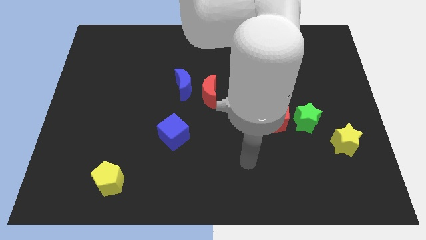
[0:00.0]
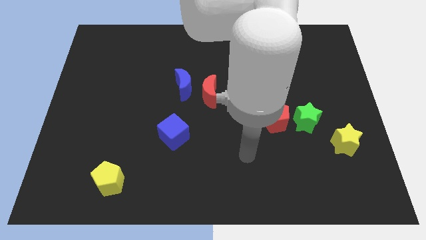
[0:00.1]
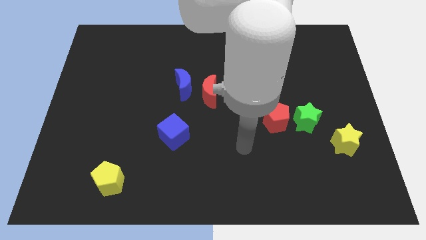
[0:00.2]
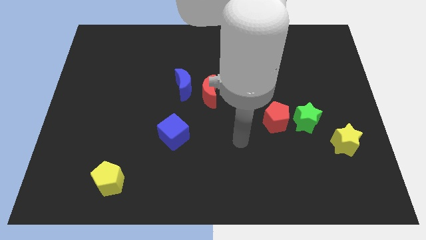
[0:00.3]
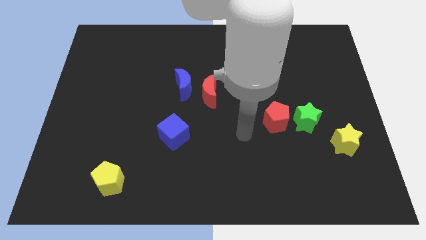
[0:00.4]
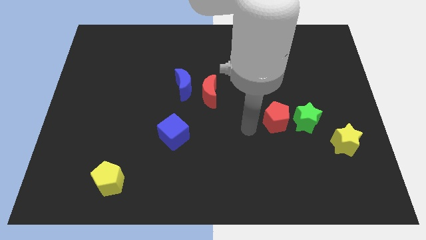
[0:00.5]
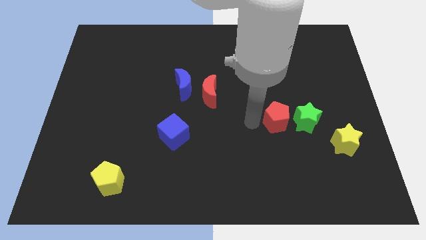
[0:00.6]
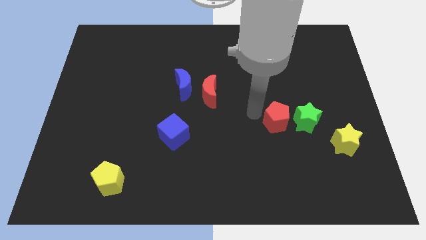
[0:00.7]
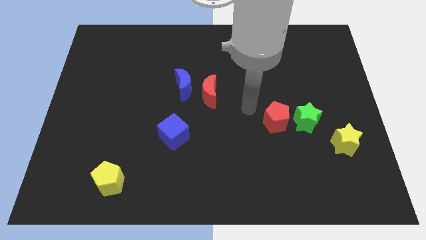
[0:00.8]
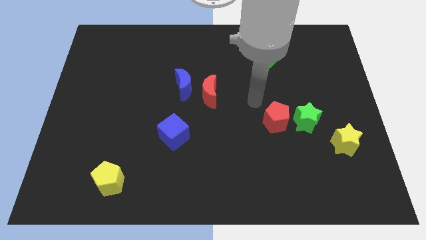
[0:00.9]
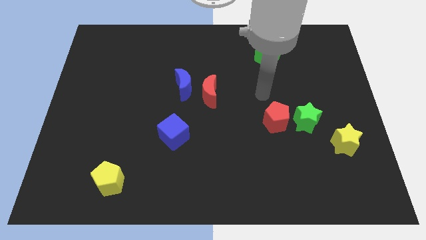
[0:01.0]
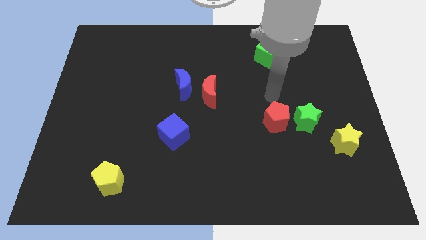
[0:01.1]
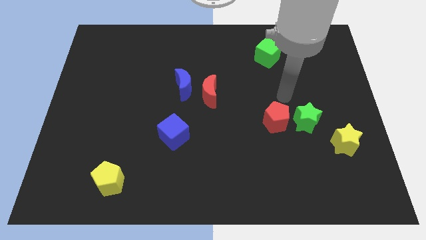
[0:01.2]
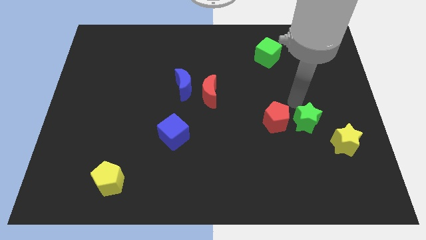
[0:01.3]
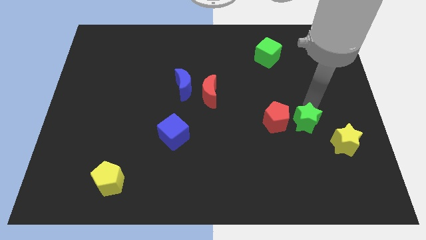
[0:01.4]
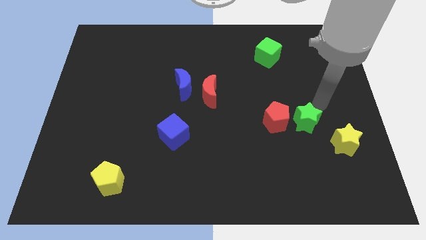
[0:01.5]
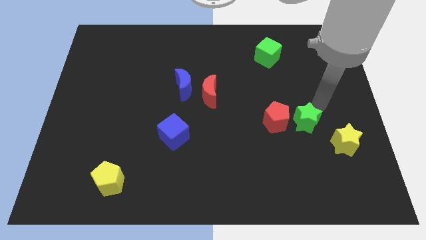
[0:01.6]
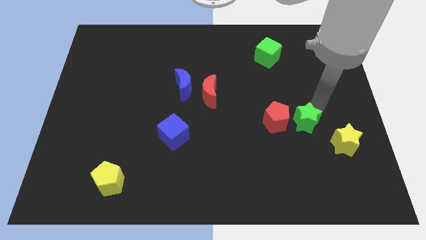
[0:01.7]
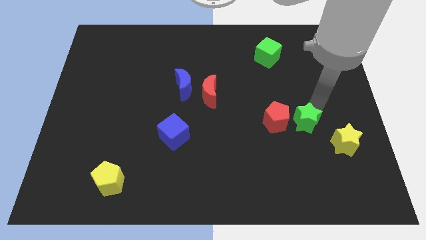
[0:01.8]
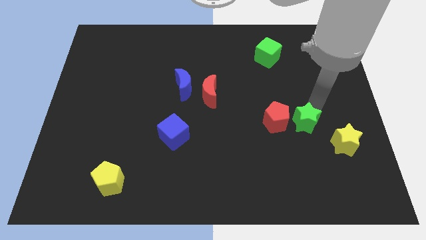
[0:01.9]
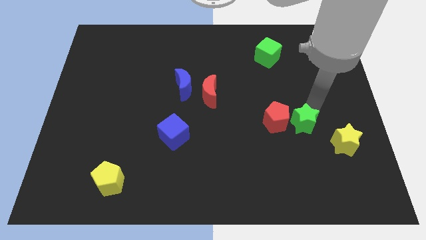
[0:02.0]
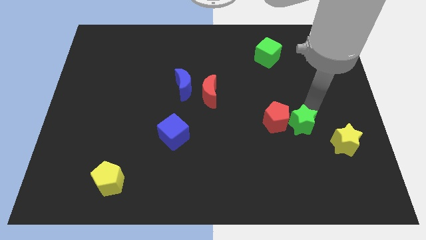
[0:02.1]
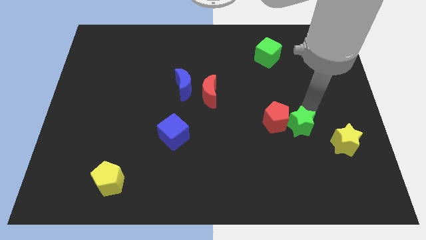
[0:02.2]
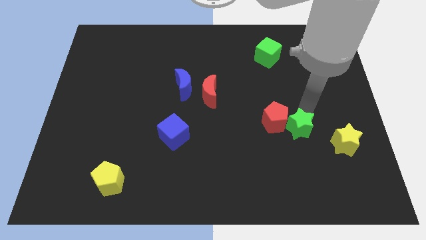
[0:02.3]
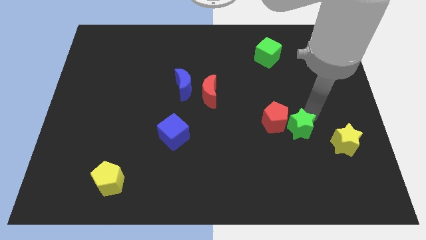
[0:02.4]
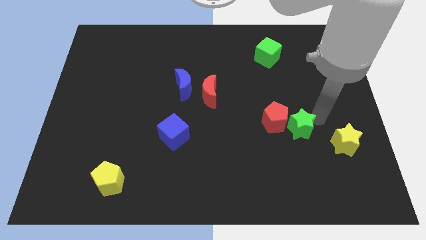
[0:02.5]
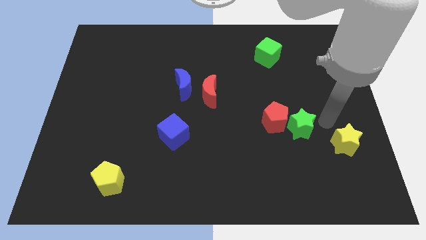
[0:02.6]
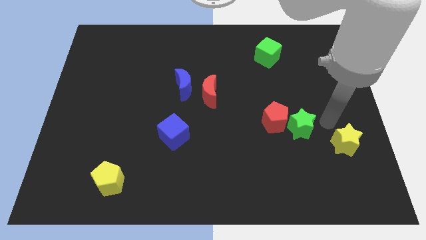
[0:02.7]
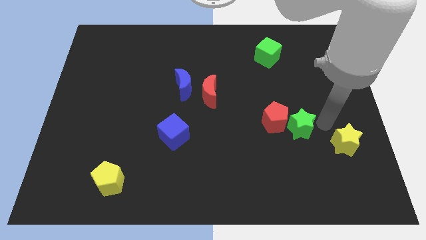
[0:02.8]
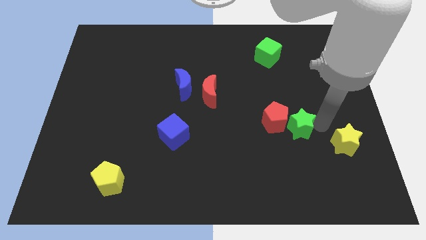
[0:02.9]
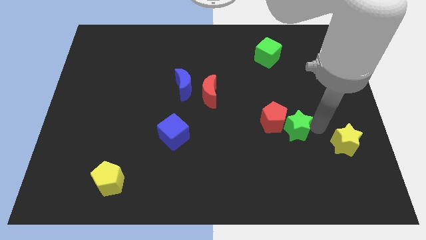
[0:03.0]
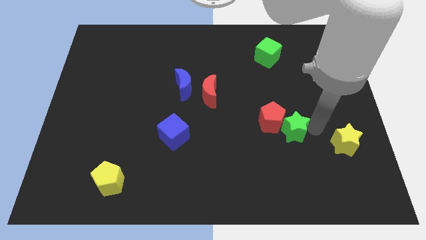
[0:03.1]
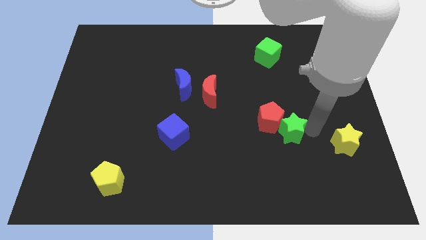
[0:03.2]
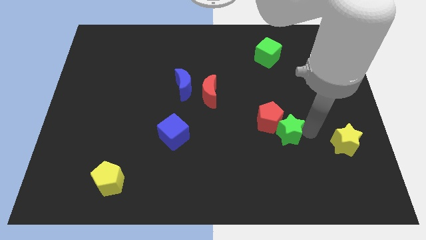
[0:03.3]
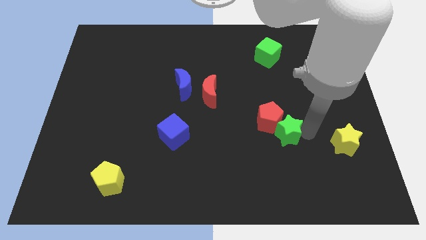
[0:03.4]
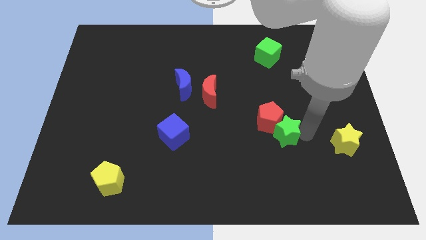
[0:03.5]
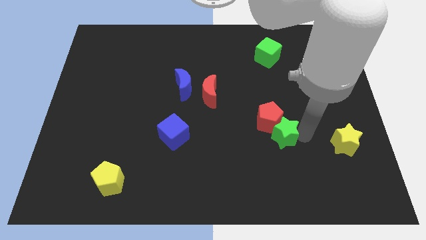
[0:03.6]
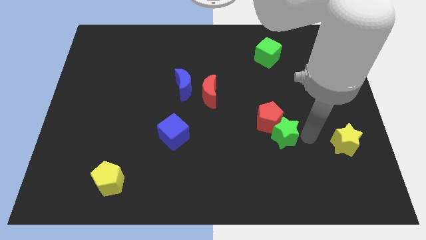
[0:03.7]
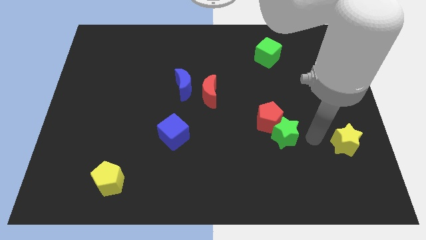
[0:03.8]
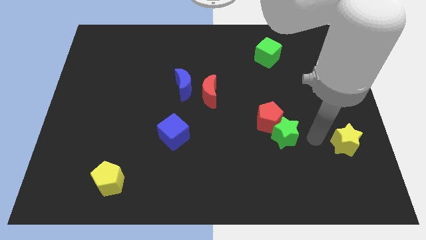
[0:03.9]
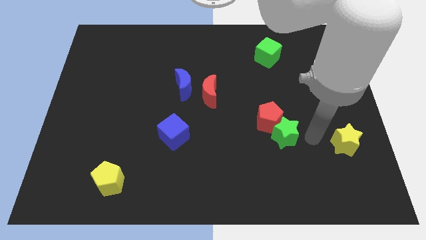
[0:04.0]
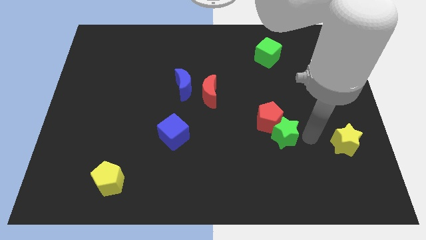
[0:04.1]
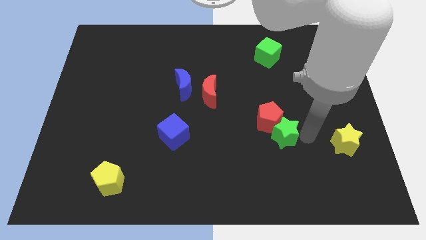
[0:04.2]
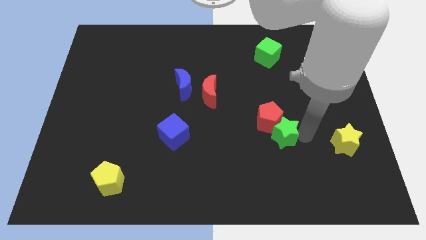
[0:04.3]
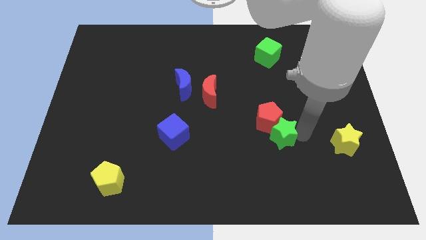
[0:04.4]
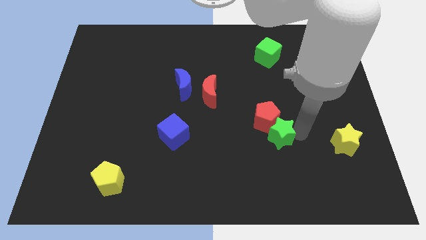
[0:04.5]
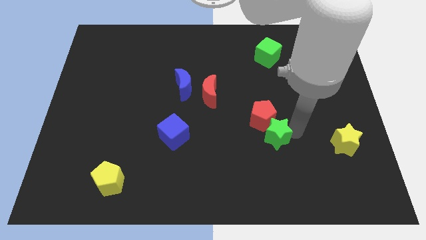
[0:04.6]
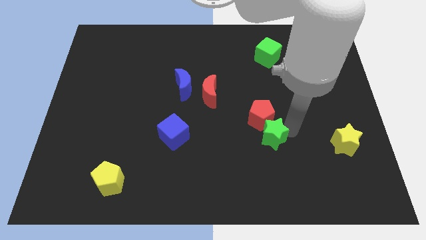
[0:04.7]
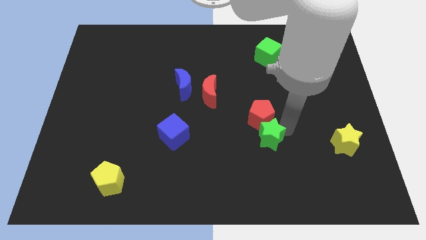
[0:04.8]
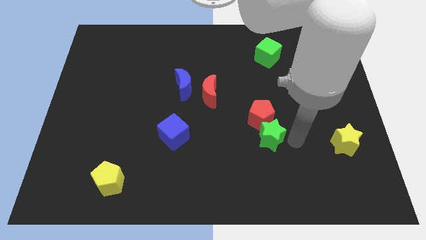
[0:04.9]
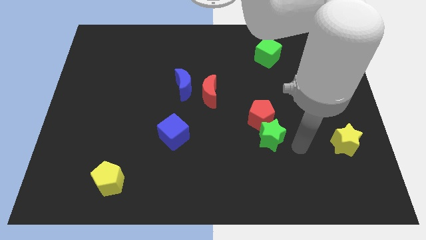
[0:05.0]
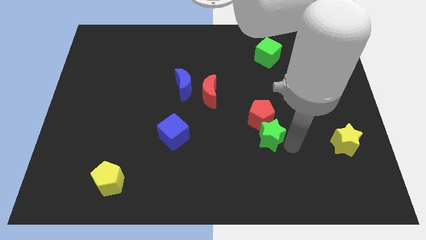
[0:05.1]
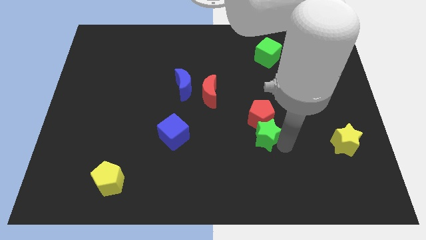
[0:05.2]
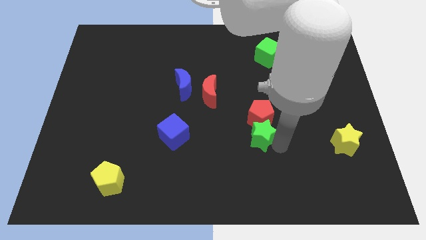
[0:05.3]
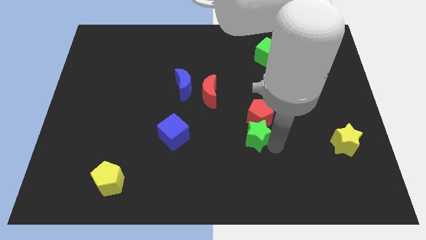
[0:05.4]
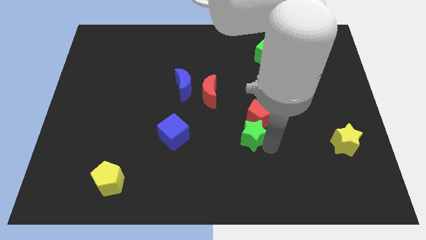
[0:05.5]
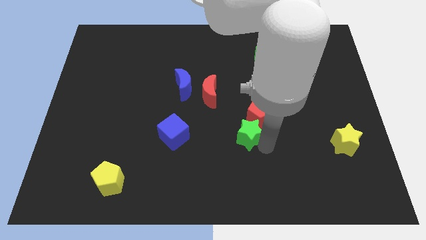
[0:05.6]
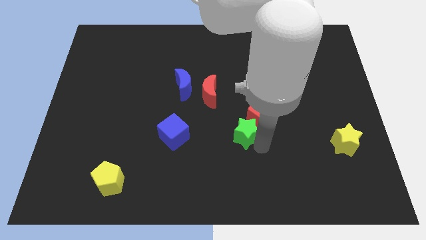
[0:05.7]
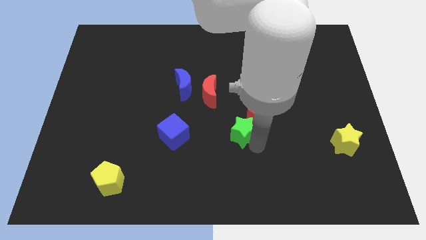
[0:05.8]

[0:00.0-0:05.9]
put the green star to the left side of the red pentagon

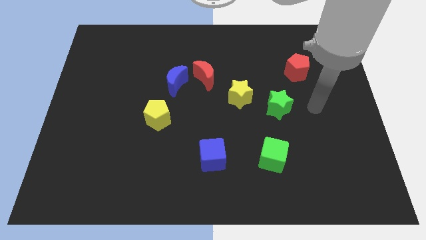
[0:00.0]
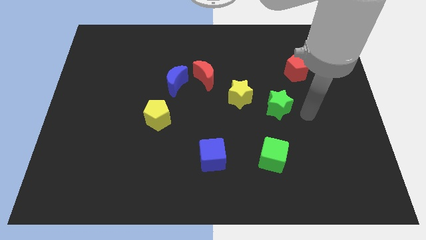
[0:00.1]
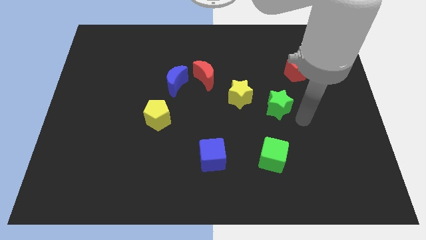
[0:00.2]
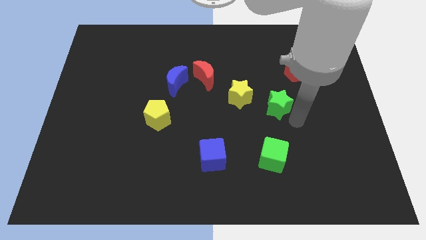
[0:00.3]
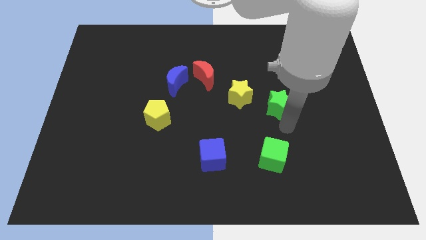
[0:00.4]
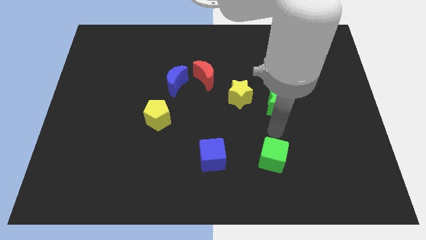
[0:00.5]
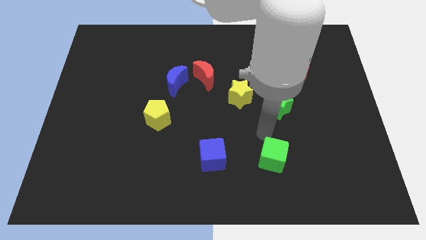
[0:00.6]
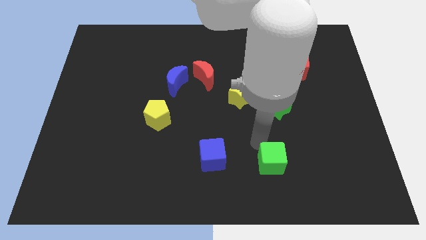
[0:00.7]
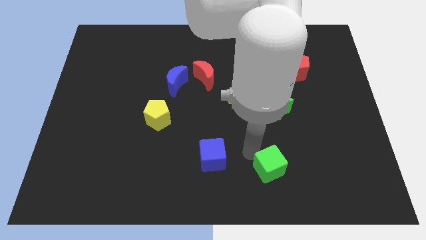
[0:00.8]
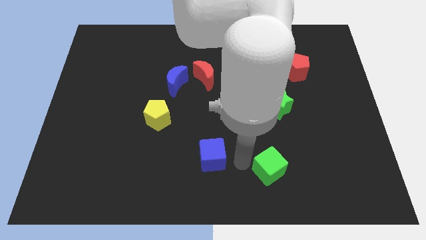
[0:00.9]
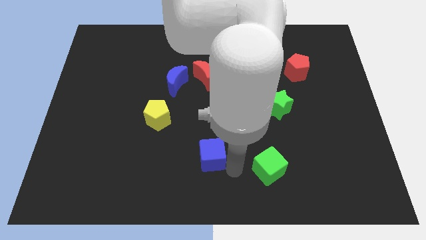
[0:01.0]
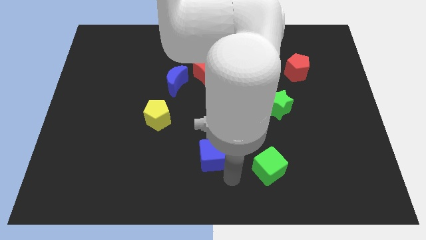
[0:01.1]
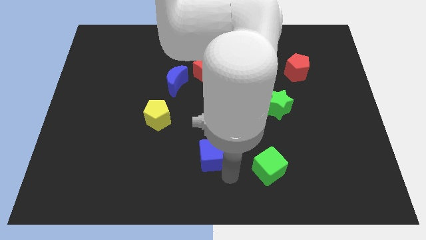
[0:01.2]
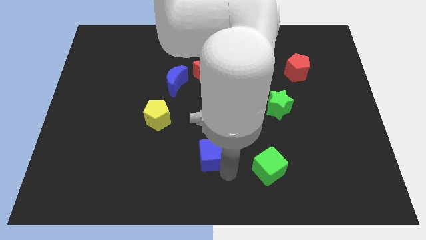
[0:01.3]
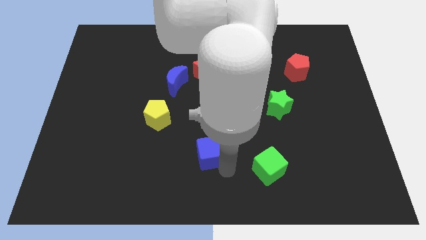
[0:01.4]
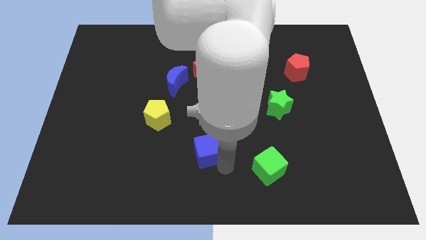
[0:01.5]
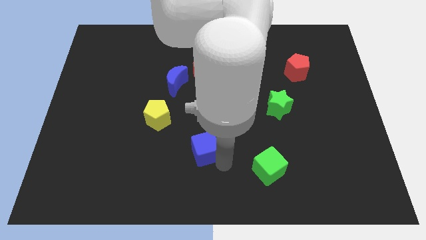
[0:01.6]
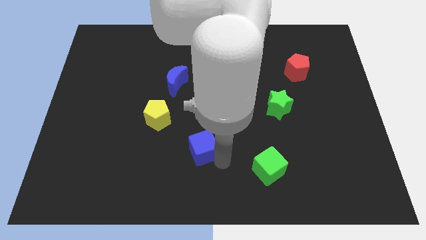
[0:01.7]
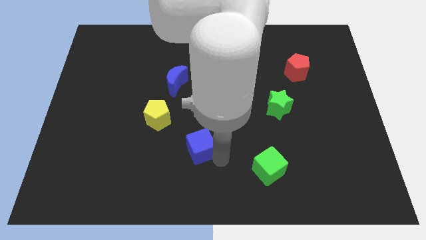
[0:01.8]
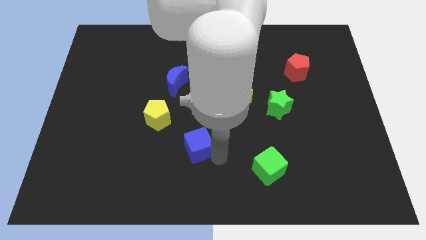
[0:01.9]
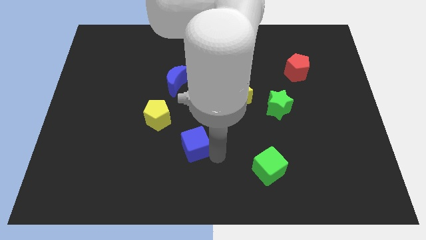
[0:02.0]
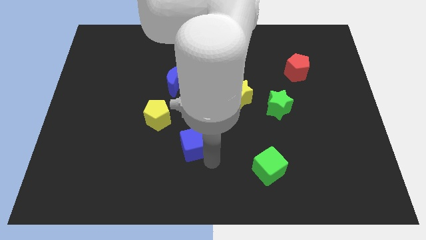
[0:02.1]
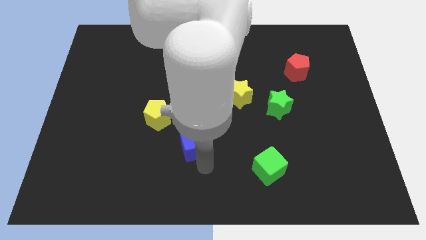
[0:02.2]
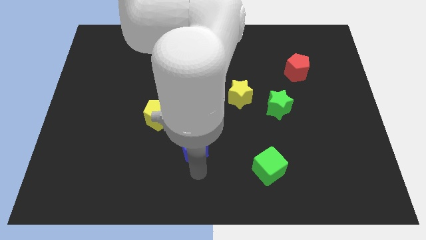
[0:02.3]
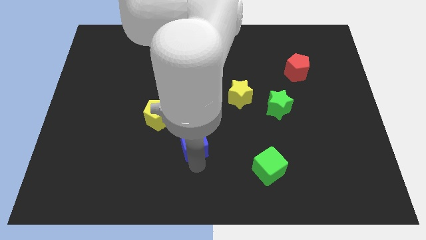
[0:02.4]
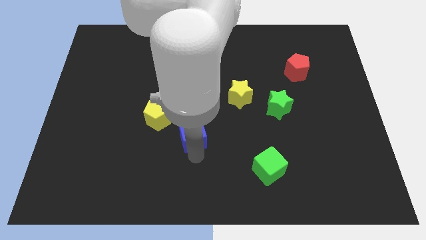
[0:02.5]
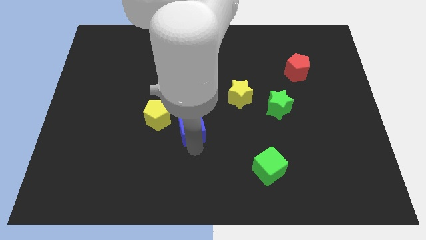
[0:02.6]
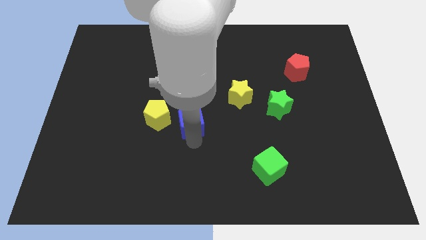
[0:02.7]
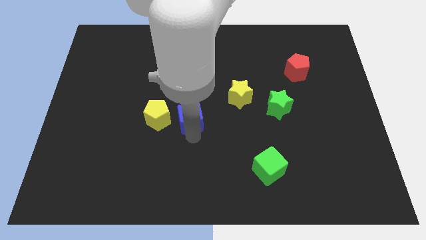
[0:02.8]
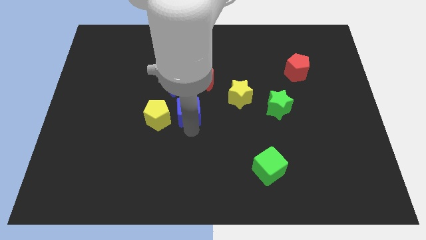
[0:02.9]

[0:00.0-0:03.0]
move the blue cube diagonally down and to the right of the blue moon
